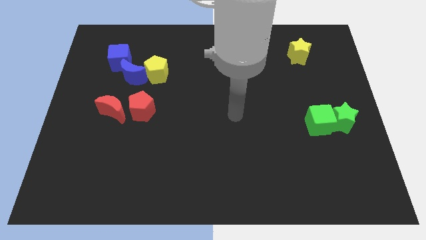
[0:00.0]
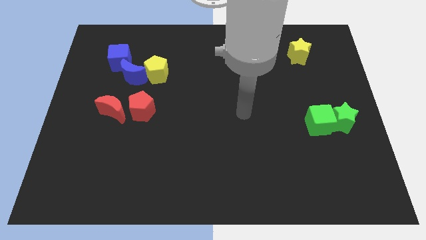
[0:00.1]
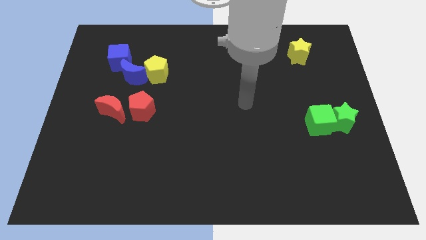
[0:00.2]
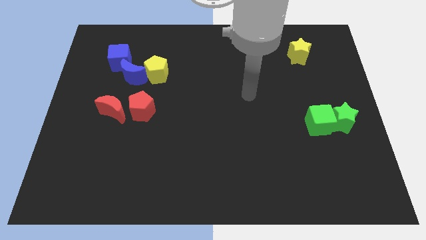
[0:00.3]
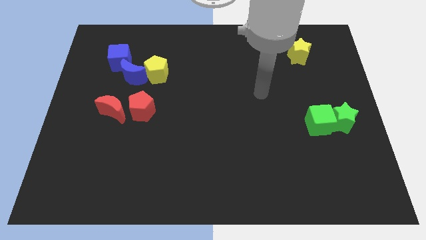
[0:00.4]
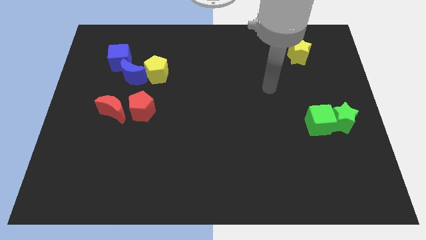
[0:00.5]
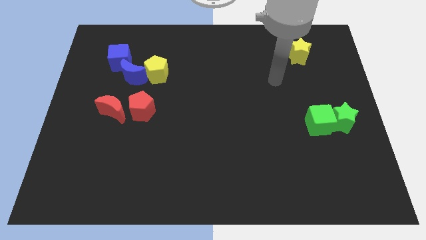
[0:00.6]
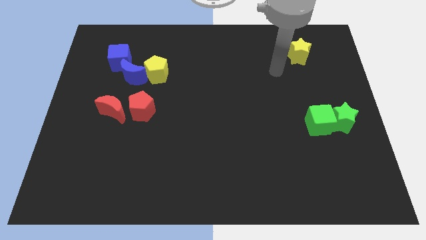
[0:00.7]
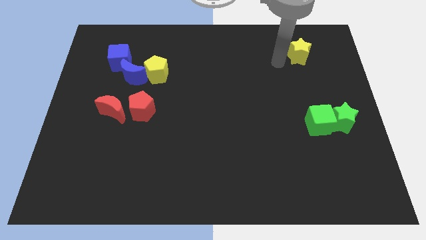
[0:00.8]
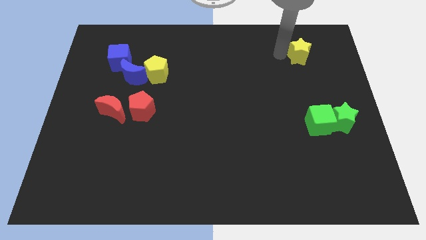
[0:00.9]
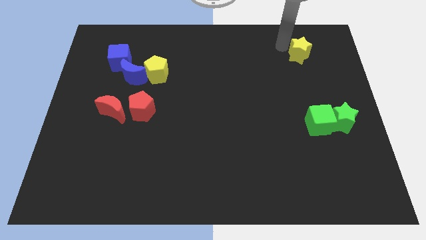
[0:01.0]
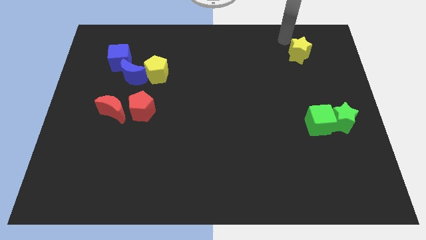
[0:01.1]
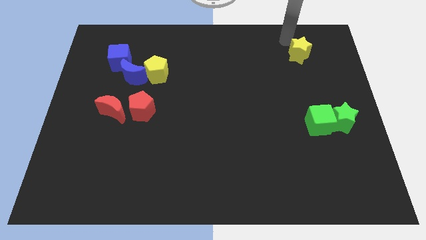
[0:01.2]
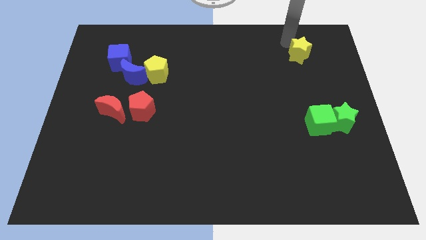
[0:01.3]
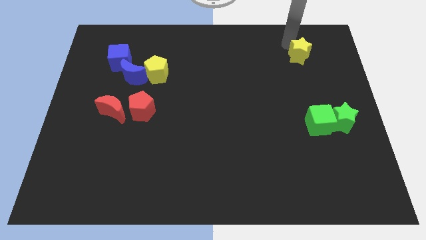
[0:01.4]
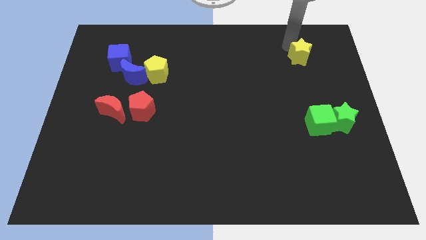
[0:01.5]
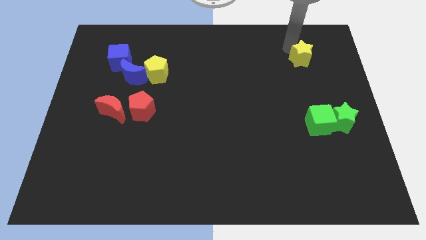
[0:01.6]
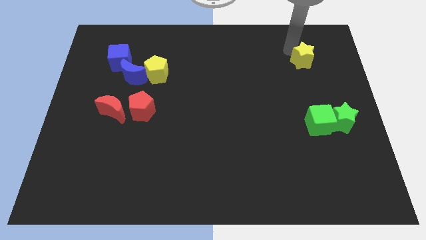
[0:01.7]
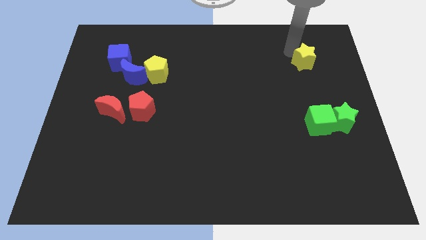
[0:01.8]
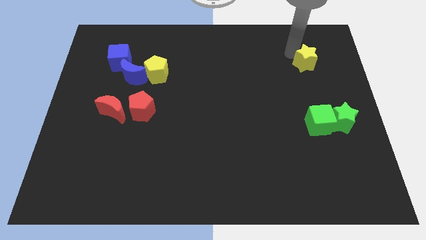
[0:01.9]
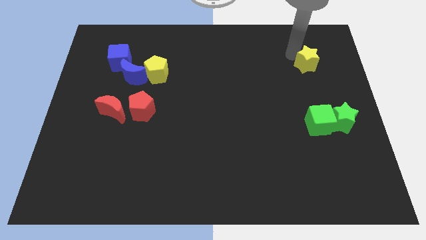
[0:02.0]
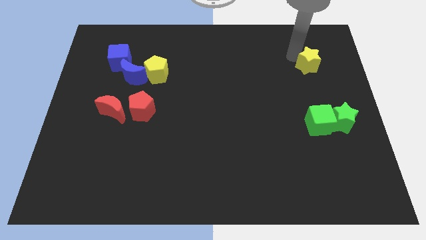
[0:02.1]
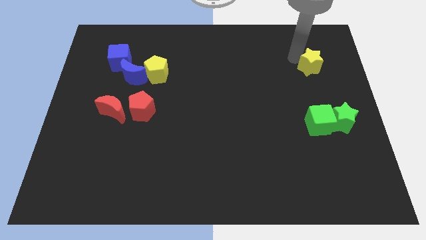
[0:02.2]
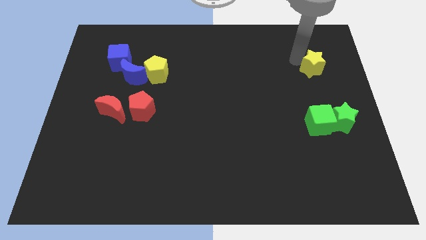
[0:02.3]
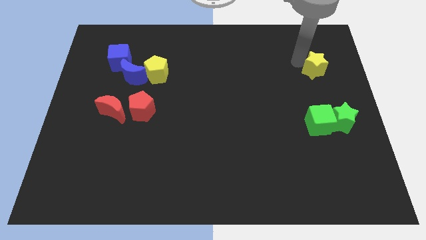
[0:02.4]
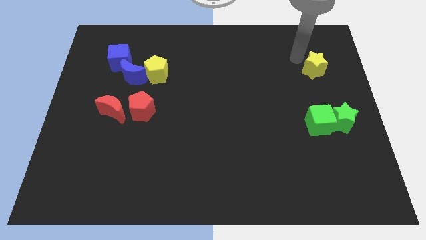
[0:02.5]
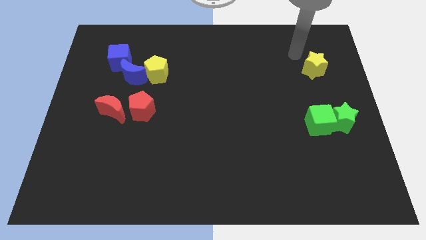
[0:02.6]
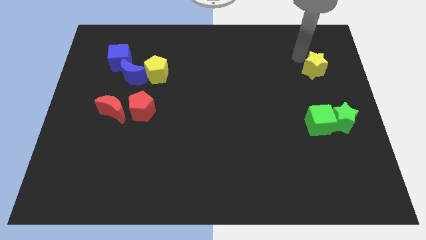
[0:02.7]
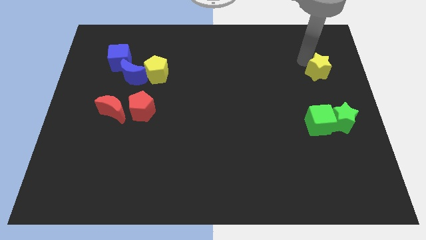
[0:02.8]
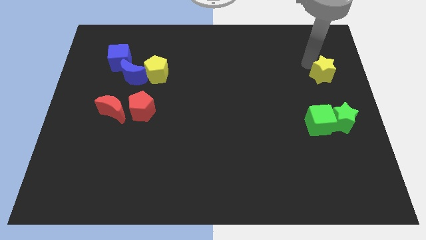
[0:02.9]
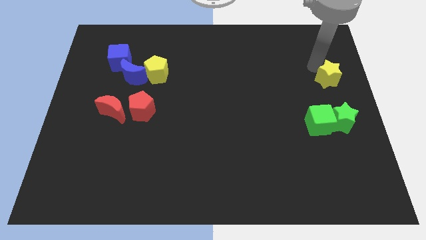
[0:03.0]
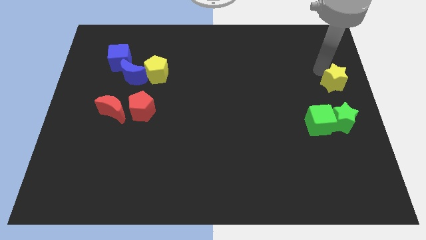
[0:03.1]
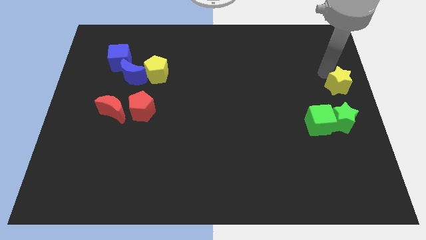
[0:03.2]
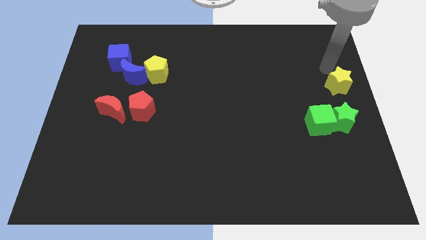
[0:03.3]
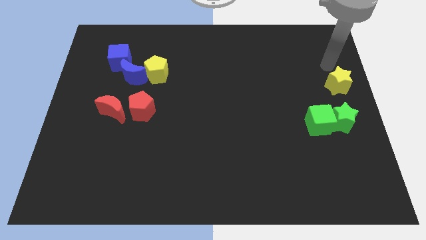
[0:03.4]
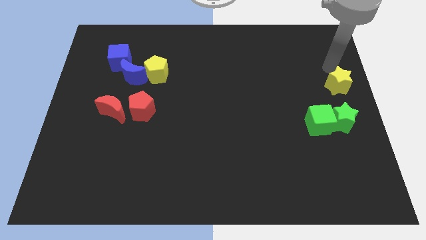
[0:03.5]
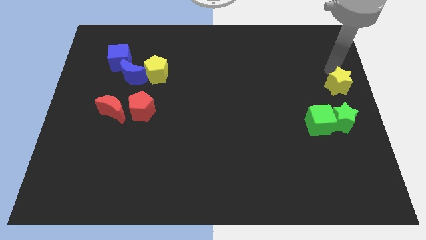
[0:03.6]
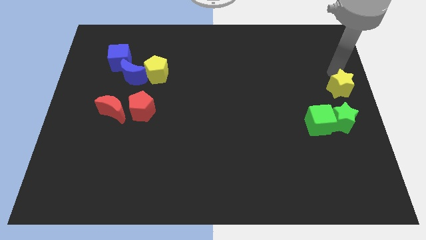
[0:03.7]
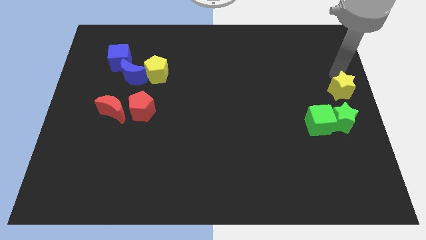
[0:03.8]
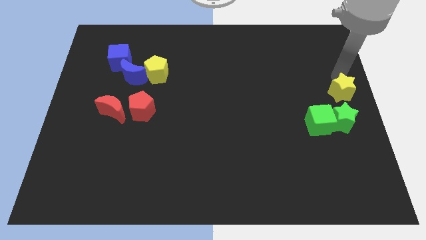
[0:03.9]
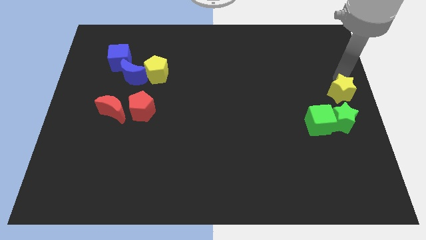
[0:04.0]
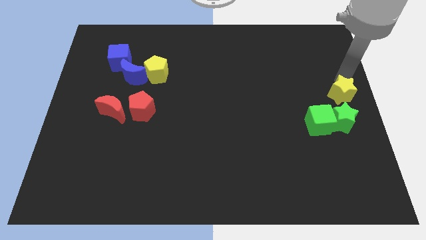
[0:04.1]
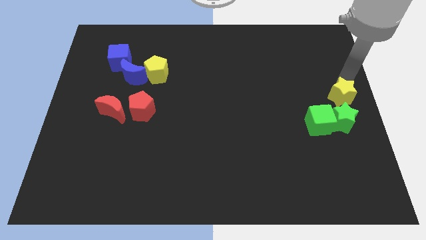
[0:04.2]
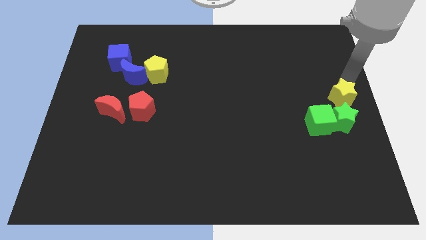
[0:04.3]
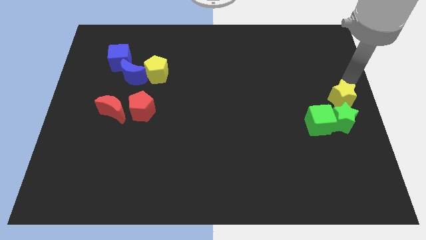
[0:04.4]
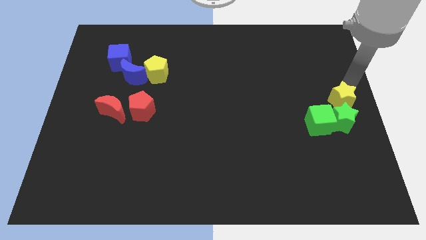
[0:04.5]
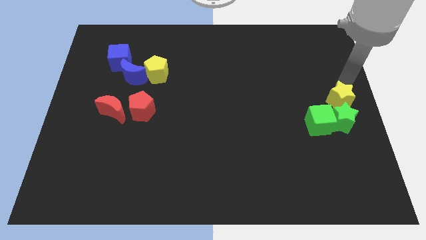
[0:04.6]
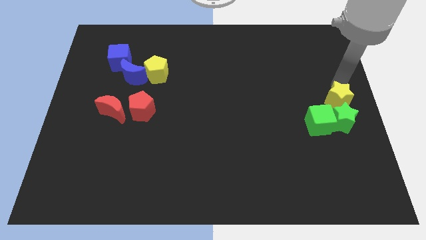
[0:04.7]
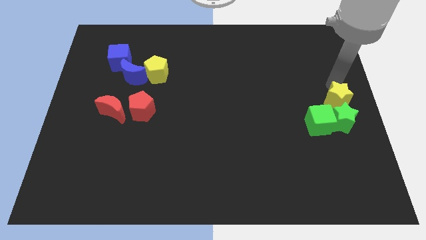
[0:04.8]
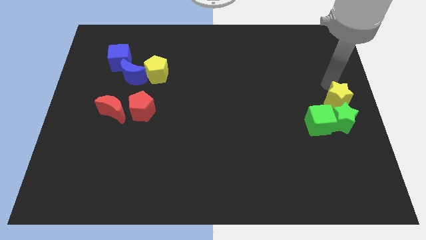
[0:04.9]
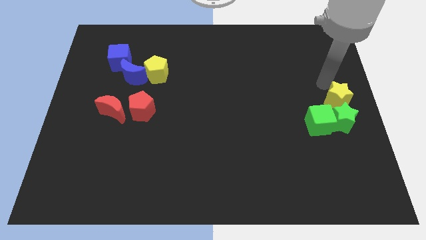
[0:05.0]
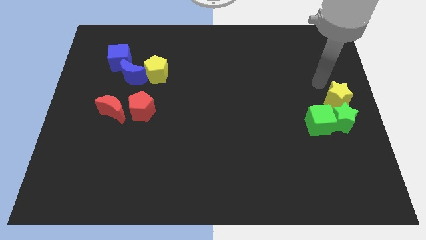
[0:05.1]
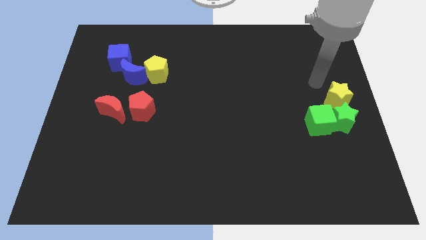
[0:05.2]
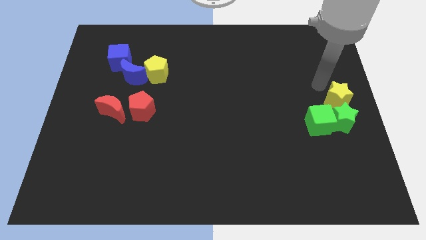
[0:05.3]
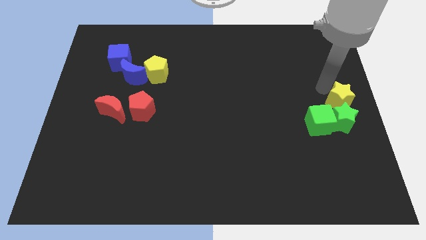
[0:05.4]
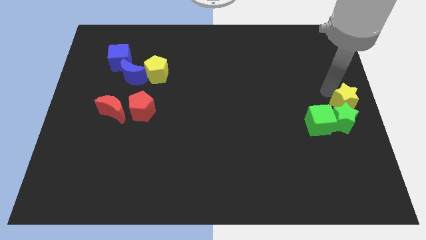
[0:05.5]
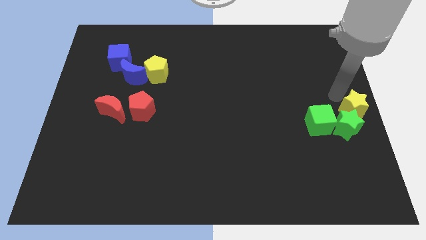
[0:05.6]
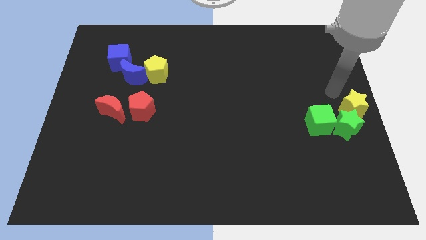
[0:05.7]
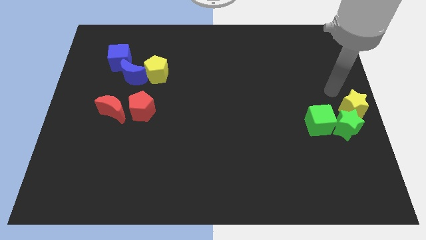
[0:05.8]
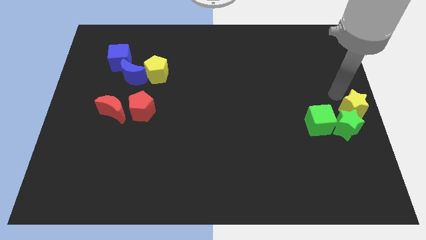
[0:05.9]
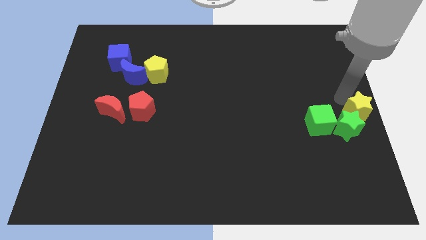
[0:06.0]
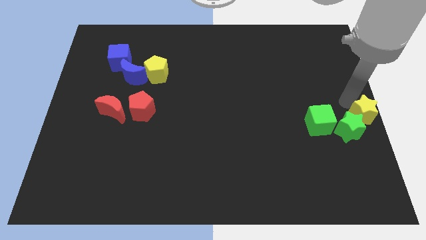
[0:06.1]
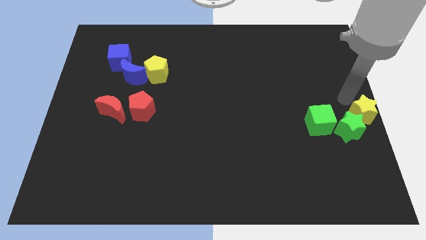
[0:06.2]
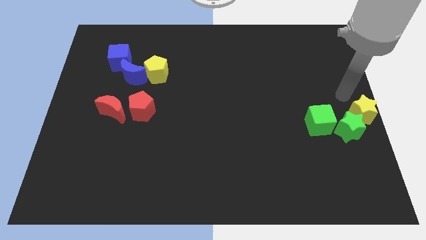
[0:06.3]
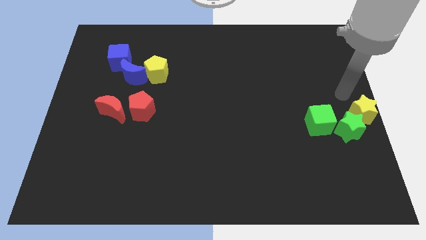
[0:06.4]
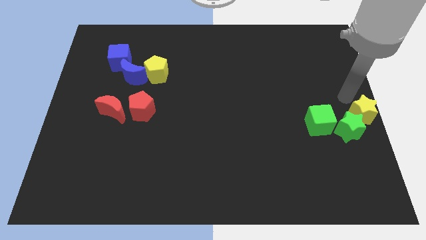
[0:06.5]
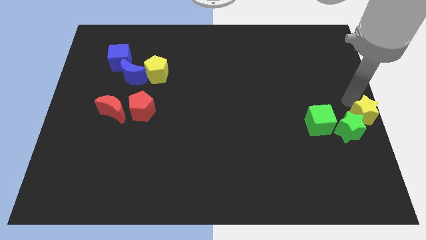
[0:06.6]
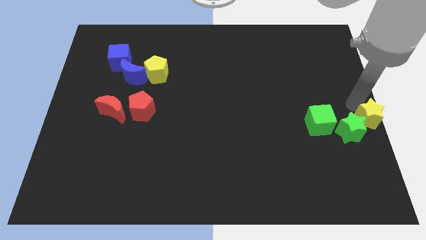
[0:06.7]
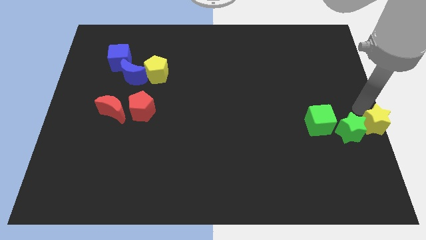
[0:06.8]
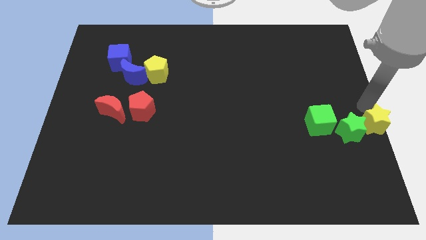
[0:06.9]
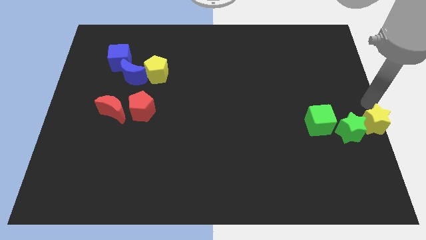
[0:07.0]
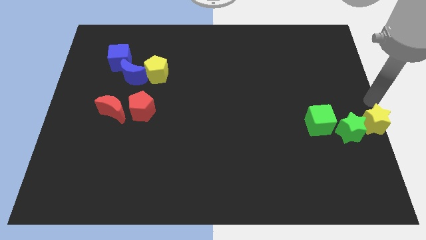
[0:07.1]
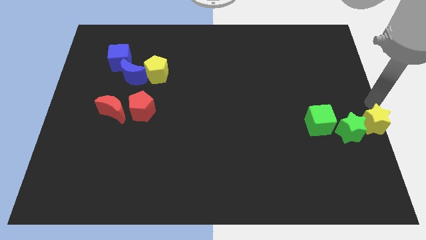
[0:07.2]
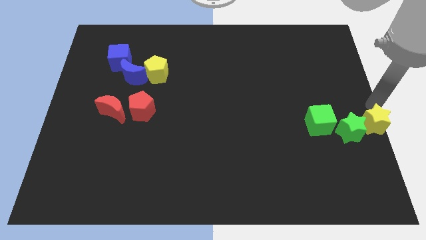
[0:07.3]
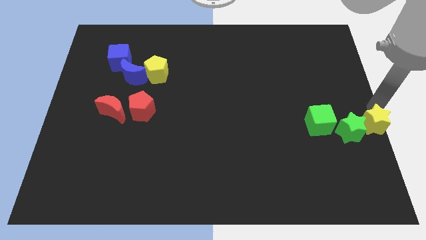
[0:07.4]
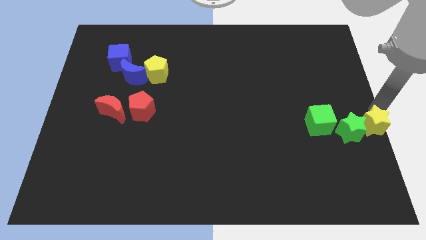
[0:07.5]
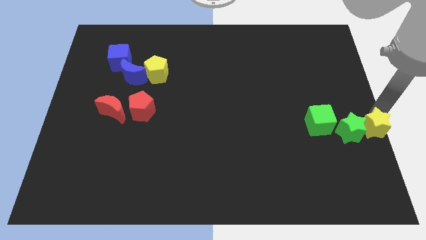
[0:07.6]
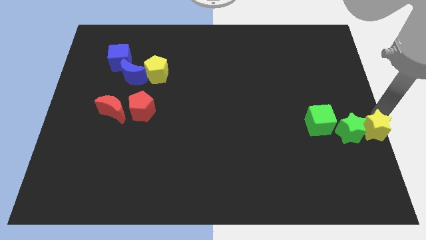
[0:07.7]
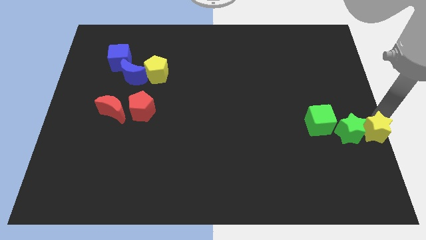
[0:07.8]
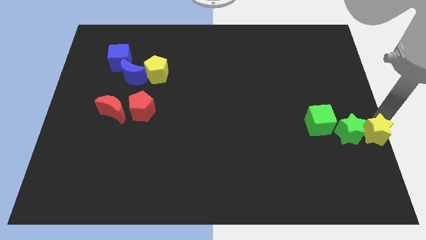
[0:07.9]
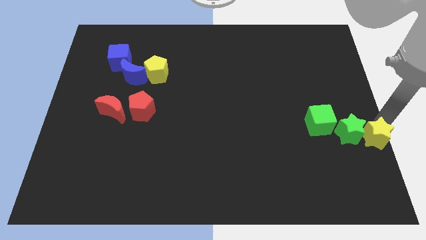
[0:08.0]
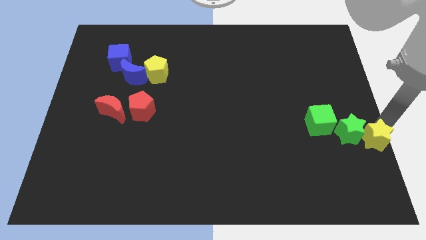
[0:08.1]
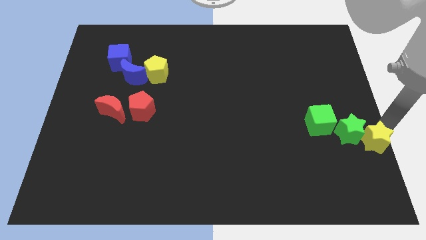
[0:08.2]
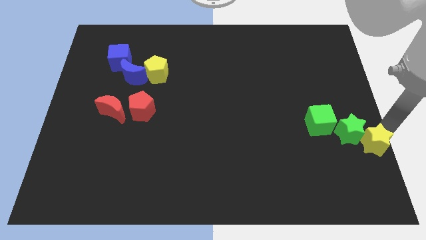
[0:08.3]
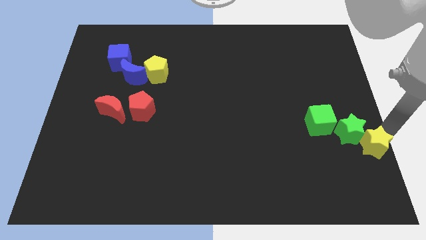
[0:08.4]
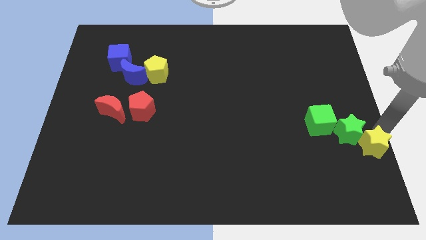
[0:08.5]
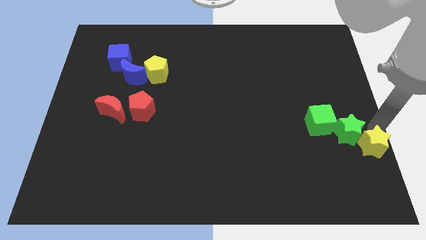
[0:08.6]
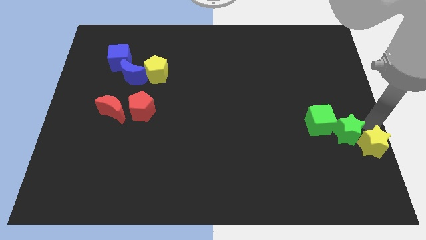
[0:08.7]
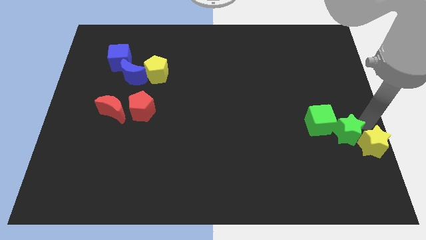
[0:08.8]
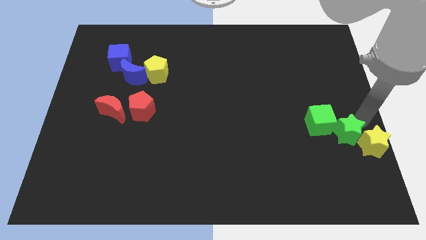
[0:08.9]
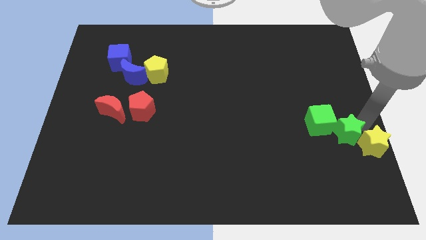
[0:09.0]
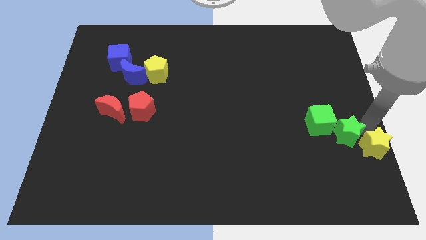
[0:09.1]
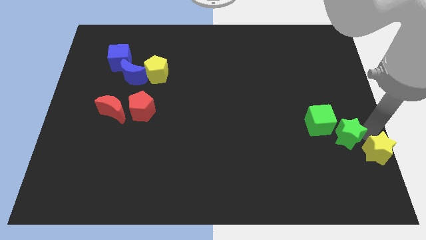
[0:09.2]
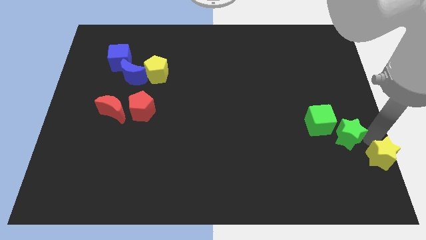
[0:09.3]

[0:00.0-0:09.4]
move the yellow star to the bottom right
